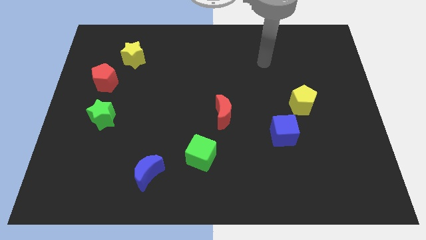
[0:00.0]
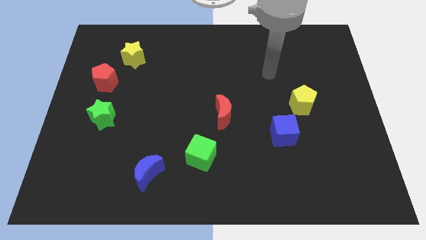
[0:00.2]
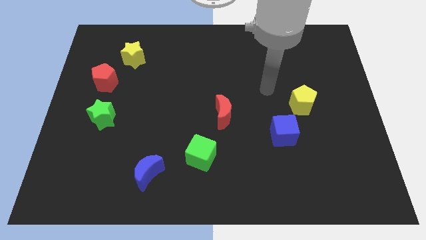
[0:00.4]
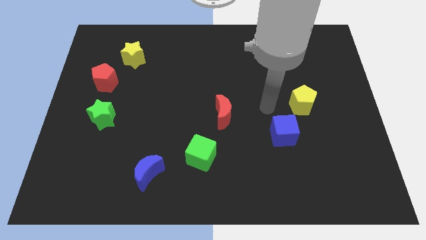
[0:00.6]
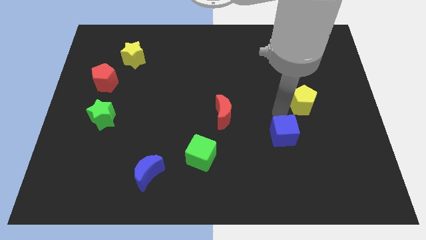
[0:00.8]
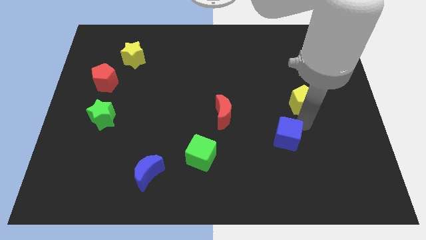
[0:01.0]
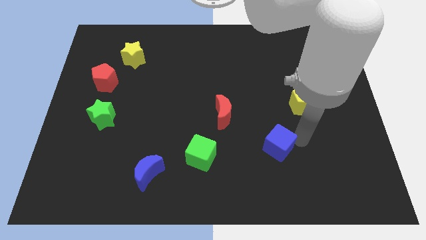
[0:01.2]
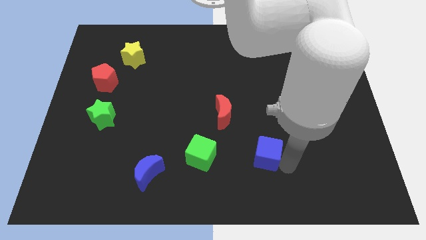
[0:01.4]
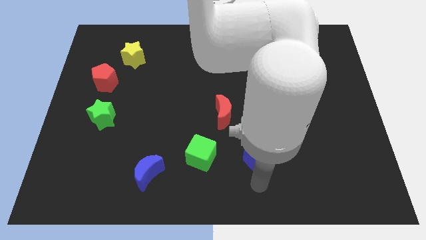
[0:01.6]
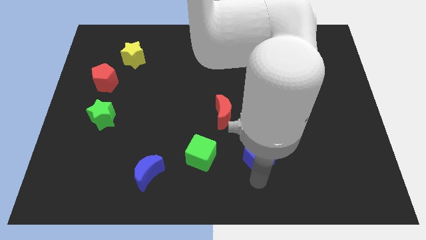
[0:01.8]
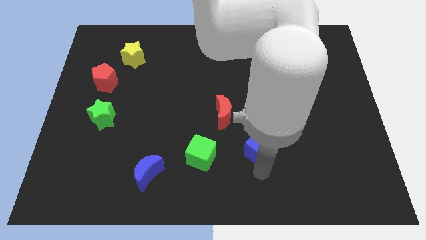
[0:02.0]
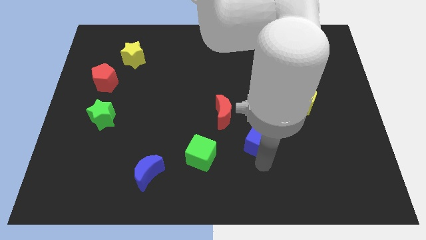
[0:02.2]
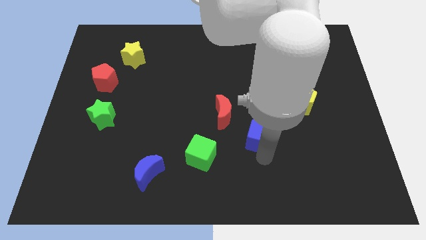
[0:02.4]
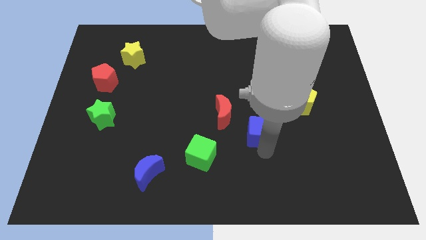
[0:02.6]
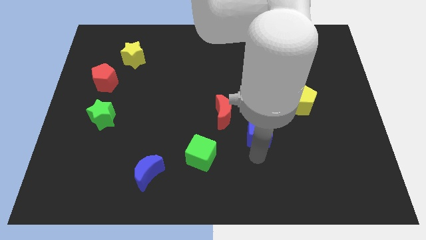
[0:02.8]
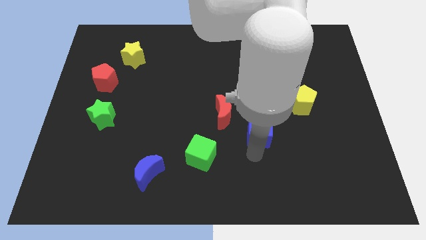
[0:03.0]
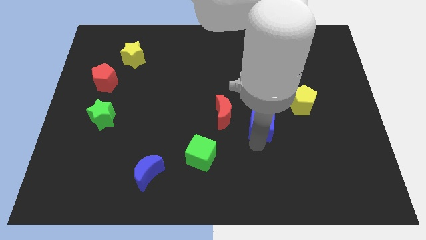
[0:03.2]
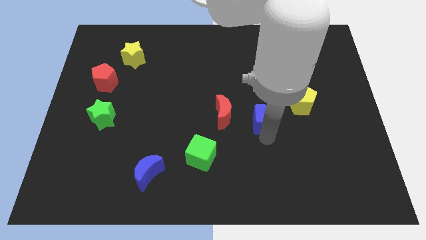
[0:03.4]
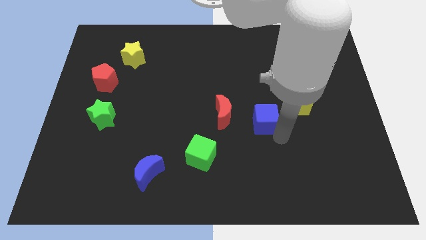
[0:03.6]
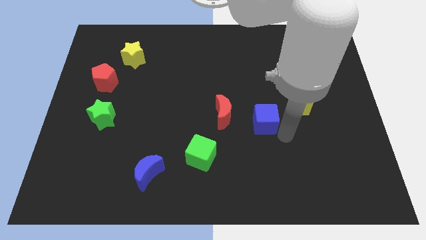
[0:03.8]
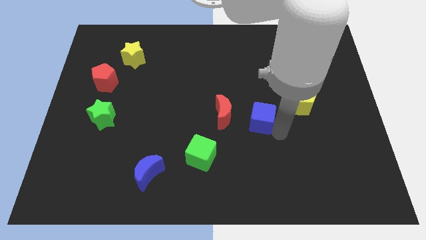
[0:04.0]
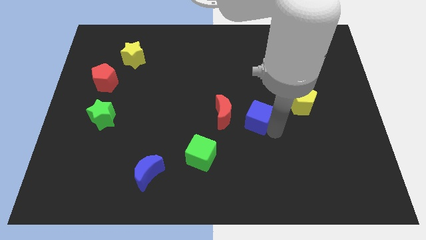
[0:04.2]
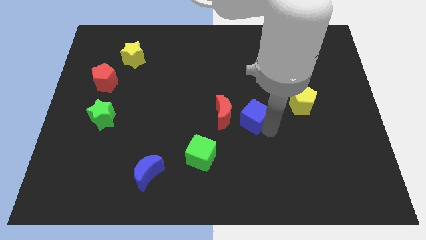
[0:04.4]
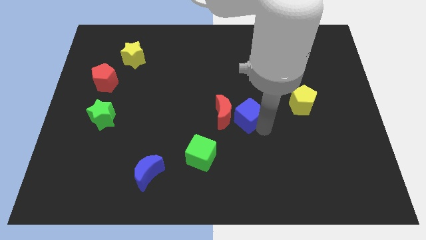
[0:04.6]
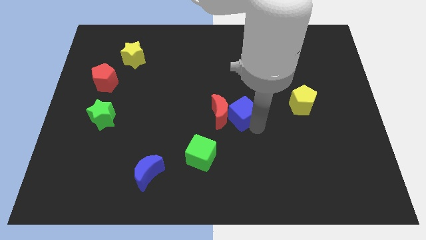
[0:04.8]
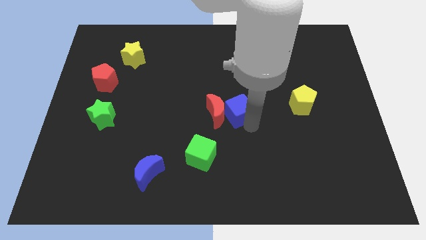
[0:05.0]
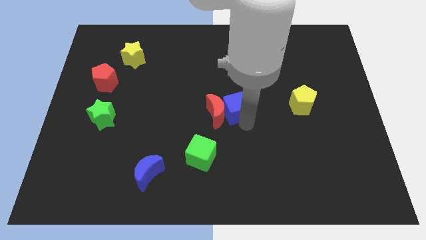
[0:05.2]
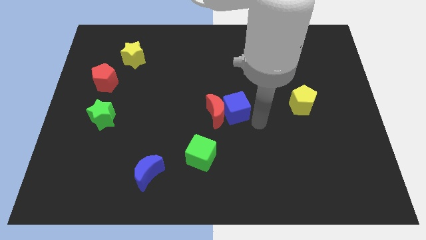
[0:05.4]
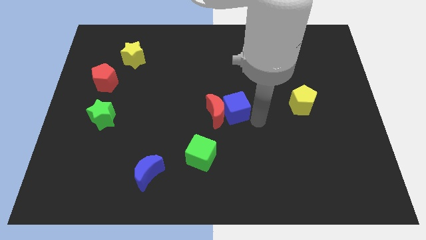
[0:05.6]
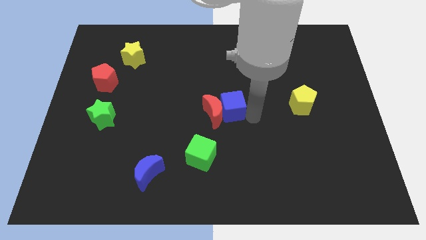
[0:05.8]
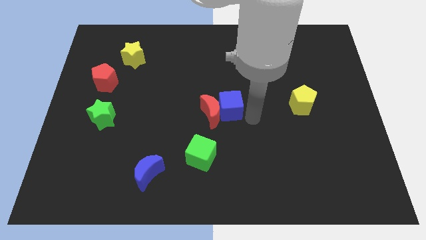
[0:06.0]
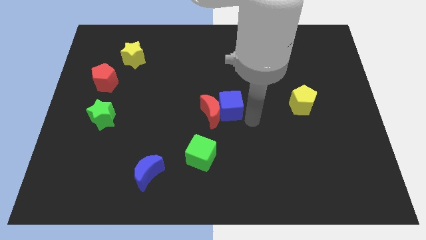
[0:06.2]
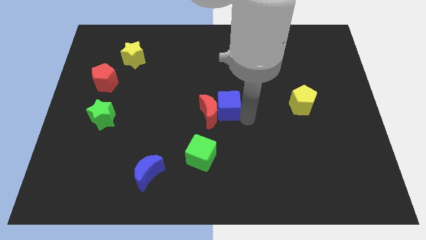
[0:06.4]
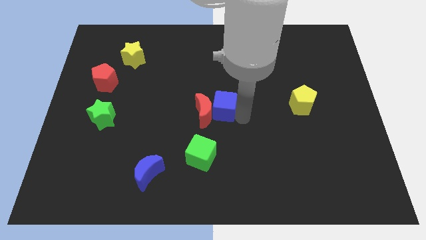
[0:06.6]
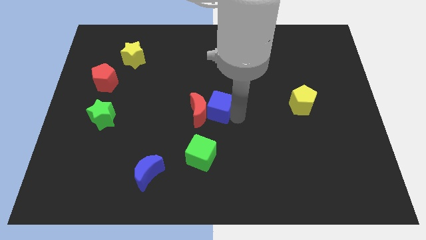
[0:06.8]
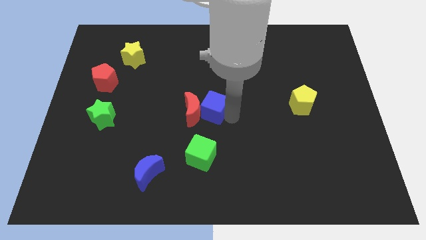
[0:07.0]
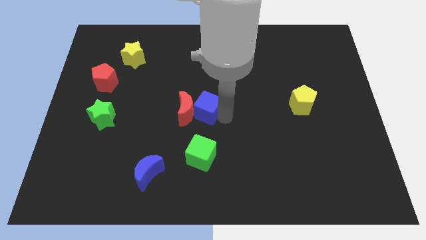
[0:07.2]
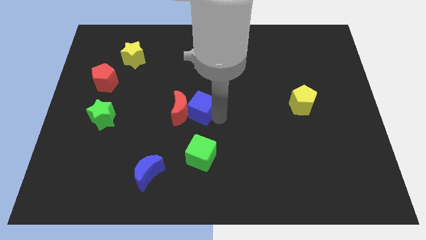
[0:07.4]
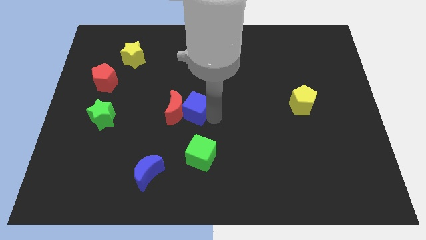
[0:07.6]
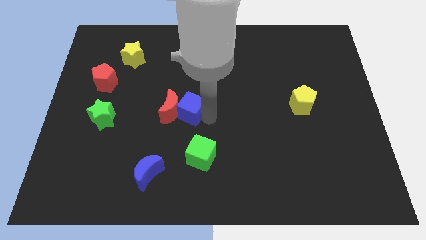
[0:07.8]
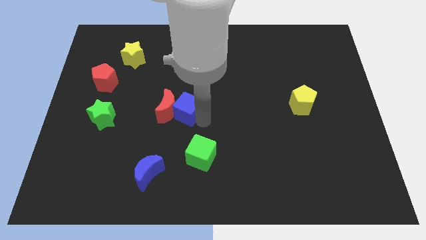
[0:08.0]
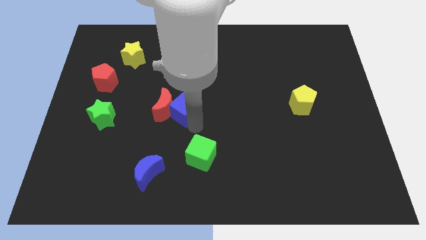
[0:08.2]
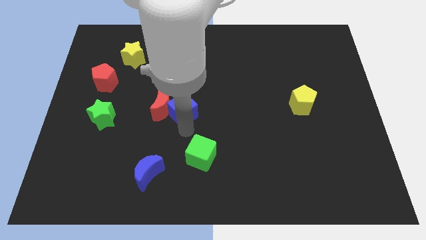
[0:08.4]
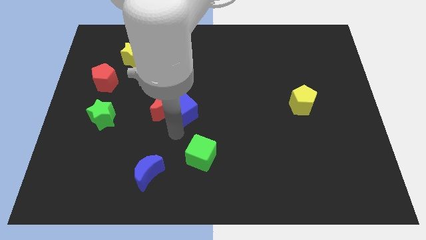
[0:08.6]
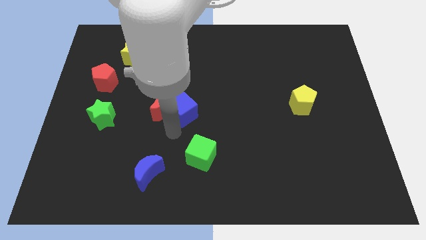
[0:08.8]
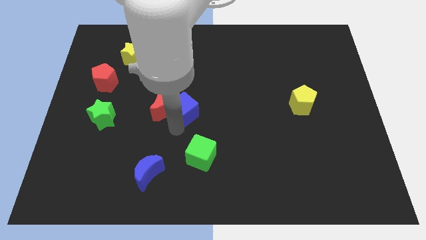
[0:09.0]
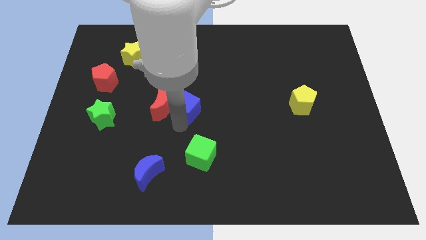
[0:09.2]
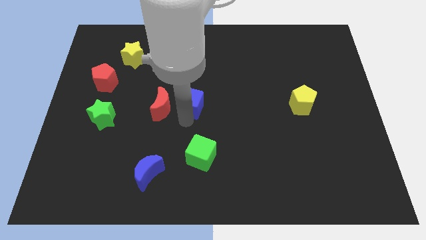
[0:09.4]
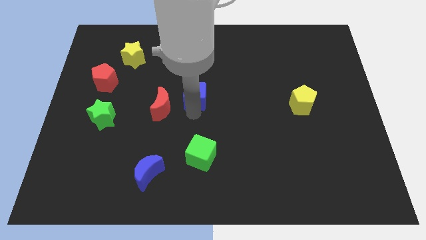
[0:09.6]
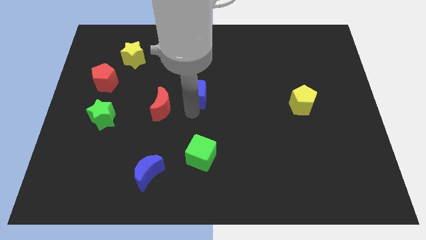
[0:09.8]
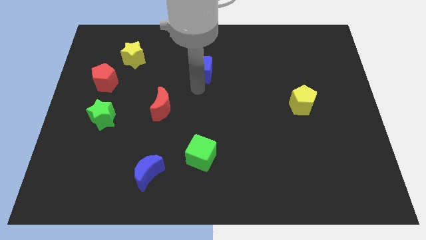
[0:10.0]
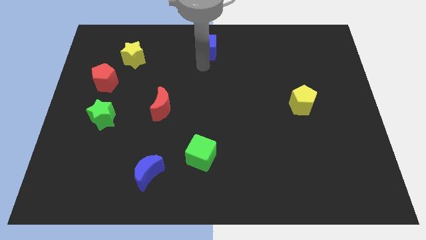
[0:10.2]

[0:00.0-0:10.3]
put the blue cube to the towards your base

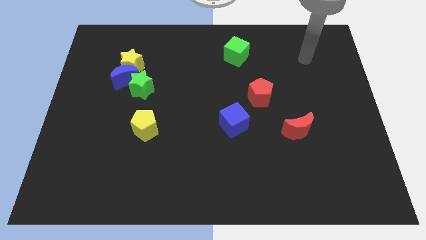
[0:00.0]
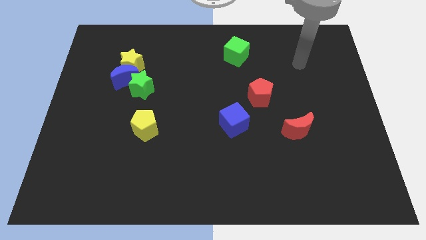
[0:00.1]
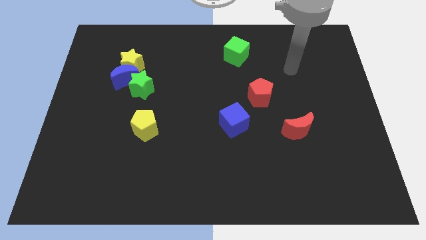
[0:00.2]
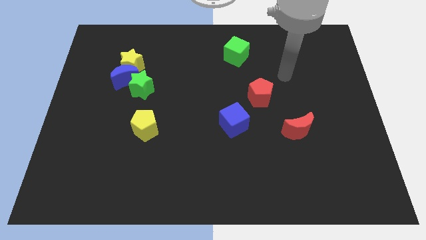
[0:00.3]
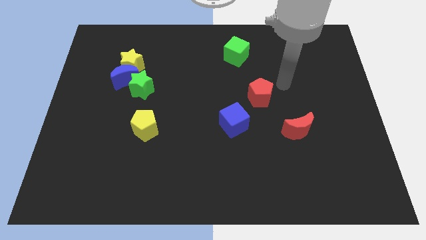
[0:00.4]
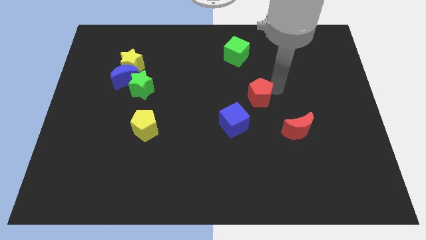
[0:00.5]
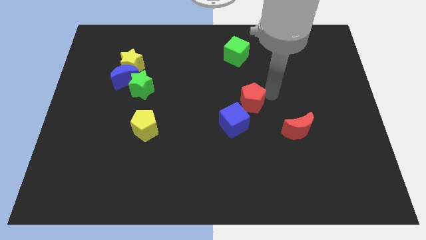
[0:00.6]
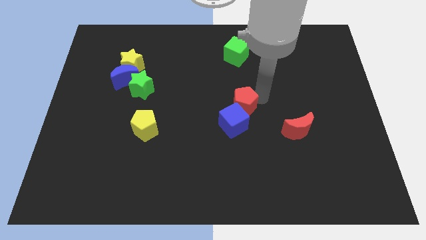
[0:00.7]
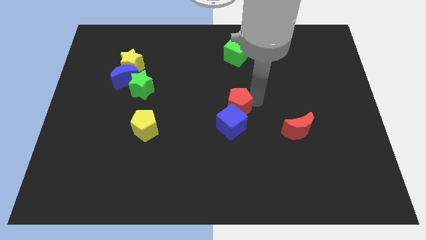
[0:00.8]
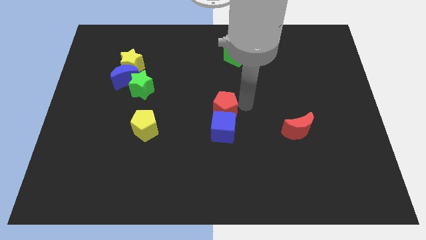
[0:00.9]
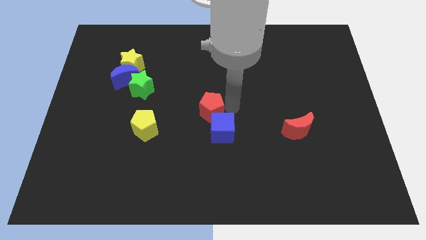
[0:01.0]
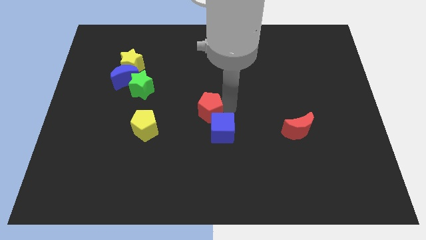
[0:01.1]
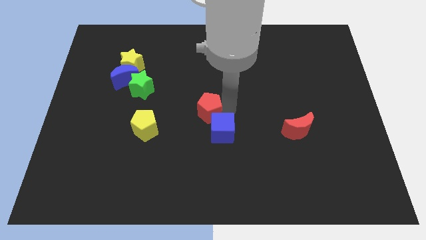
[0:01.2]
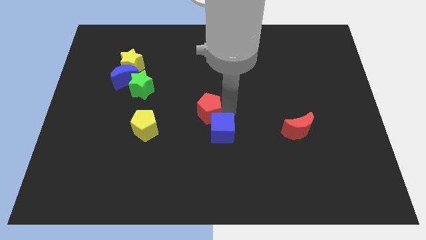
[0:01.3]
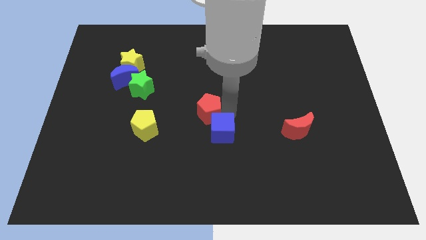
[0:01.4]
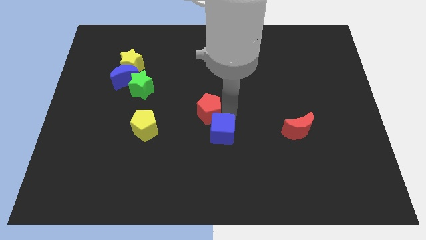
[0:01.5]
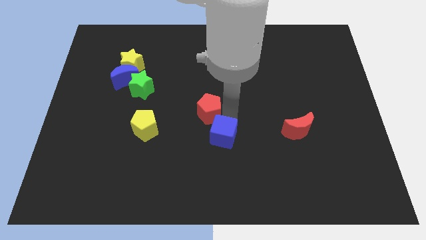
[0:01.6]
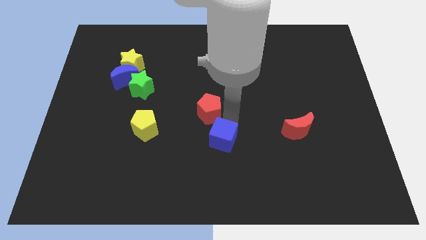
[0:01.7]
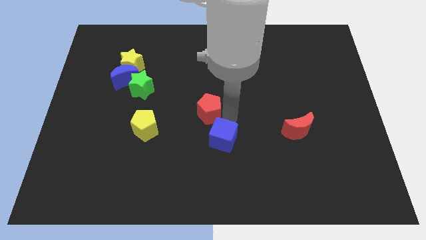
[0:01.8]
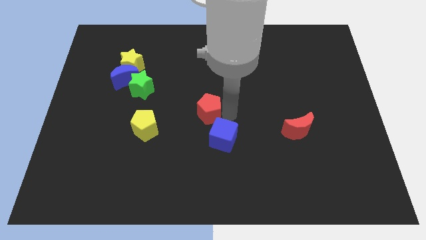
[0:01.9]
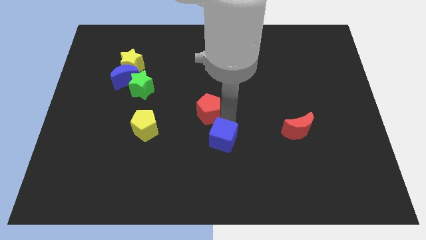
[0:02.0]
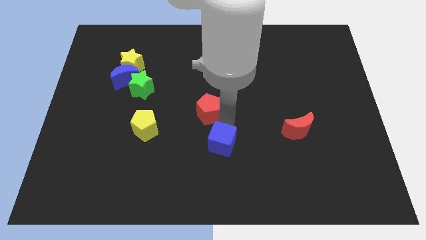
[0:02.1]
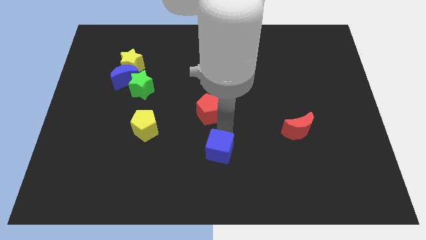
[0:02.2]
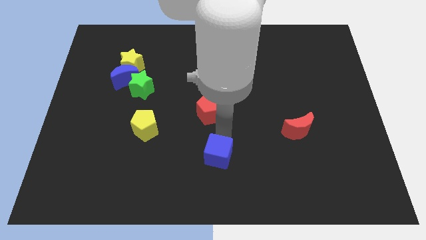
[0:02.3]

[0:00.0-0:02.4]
move the blue cube to the bottom side
